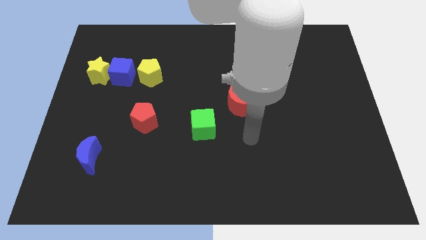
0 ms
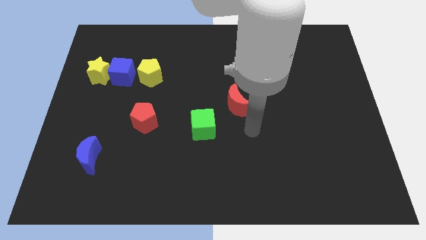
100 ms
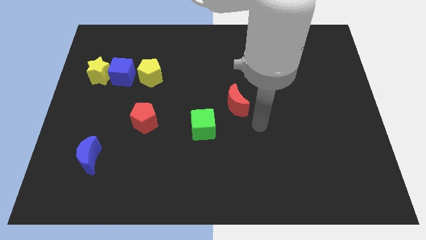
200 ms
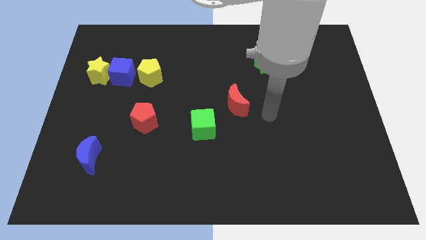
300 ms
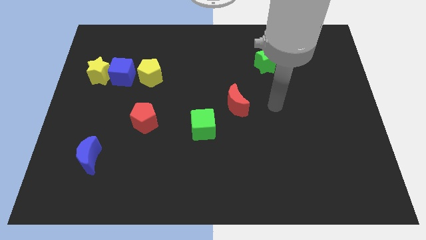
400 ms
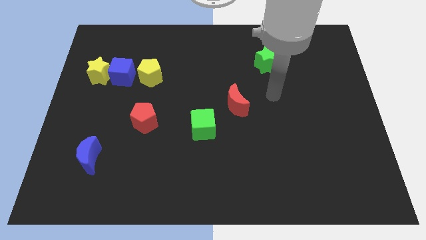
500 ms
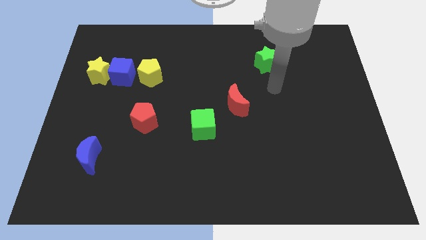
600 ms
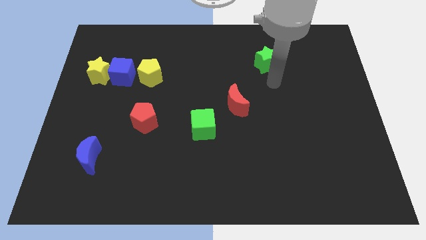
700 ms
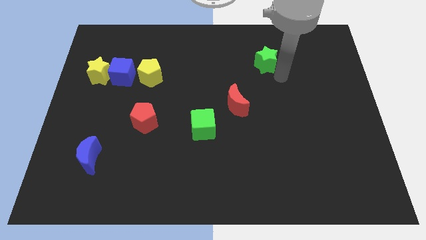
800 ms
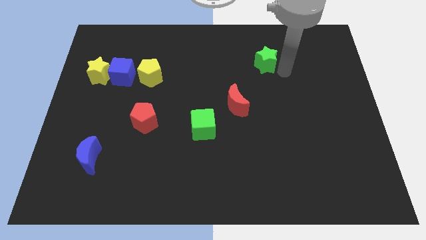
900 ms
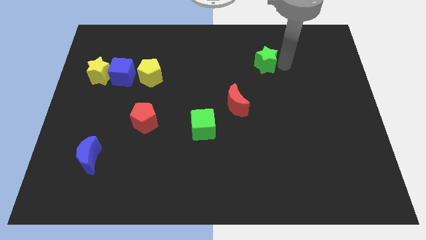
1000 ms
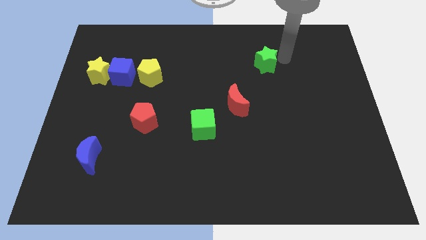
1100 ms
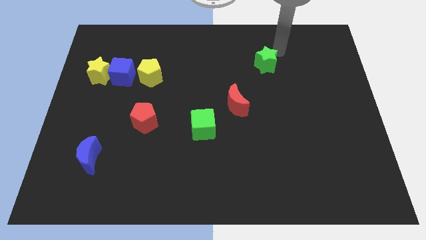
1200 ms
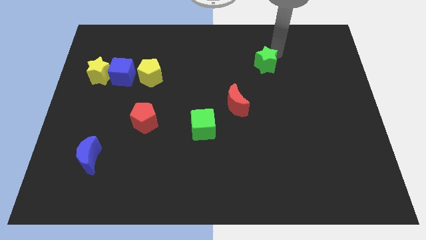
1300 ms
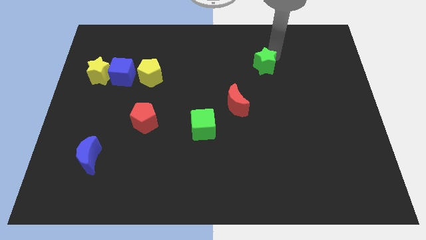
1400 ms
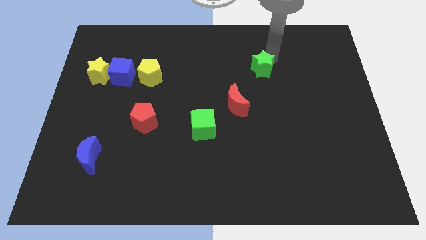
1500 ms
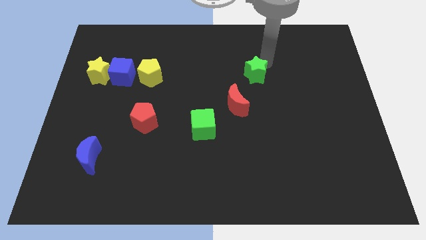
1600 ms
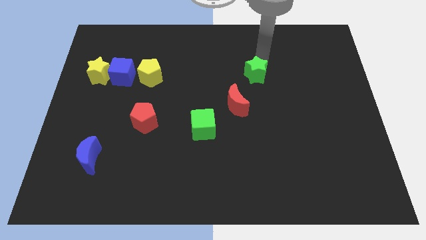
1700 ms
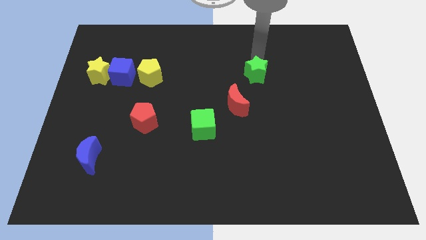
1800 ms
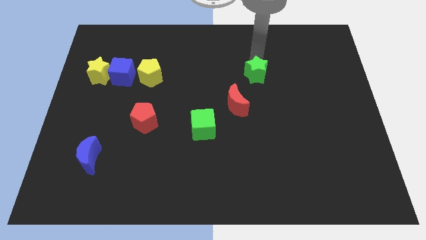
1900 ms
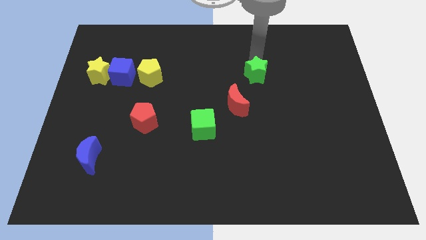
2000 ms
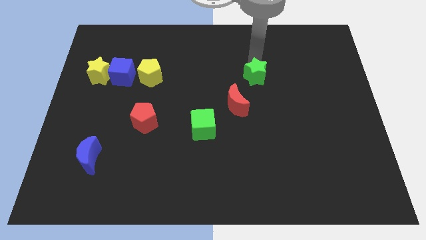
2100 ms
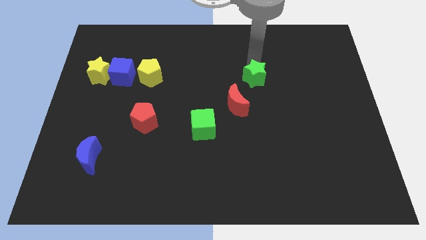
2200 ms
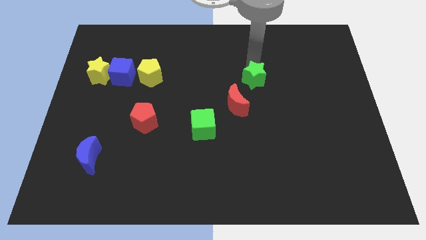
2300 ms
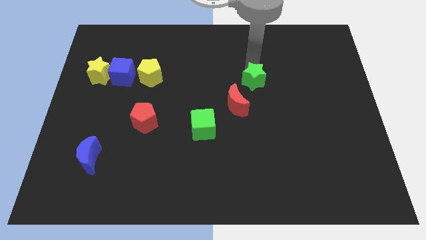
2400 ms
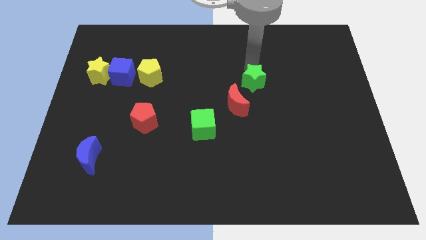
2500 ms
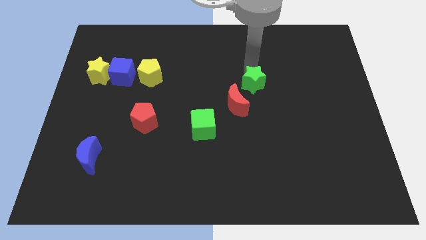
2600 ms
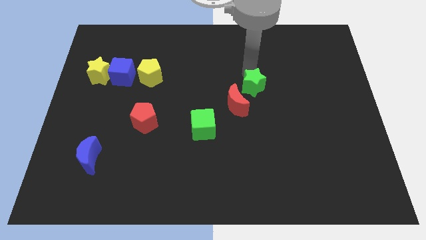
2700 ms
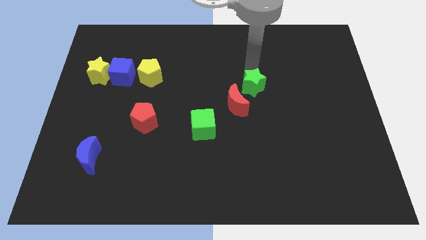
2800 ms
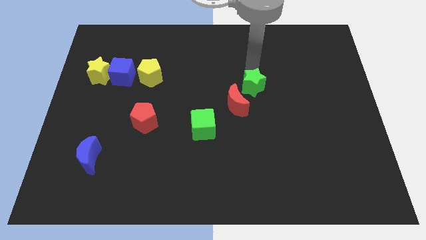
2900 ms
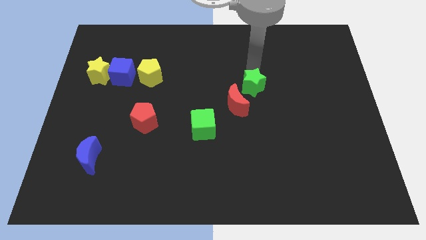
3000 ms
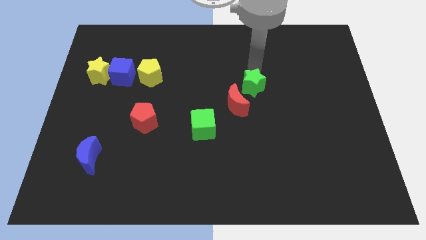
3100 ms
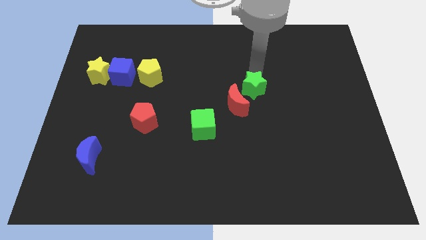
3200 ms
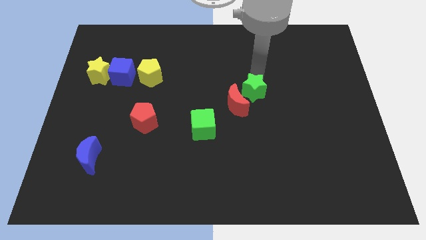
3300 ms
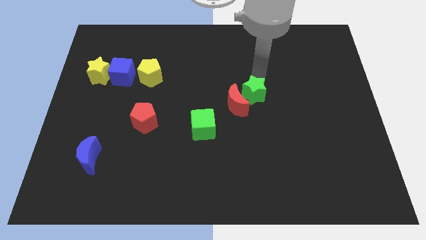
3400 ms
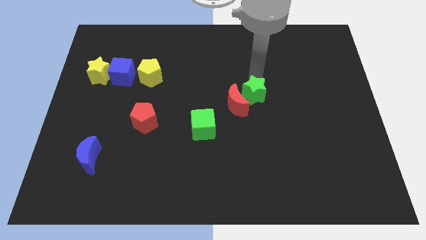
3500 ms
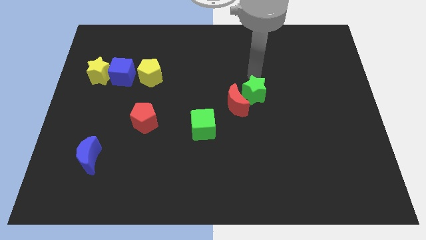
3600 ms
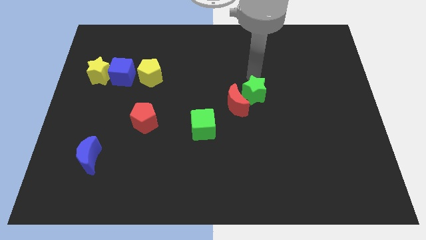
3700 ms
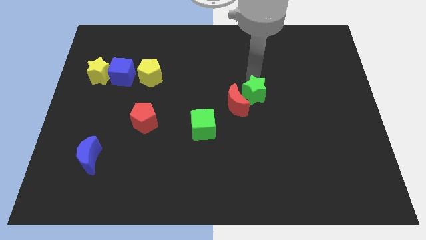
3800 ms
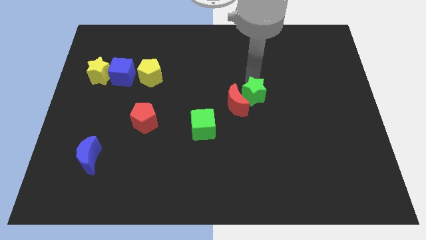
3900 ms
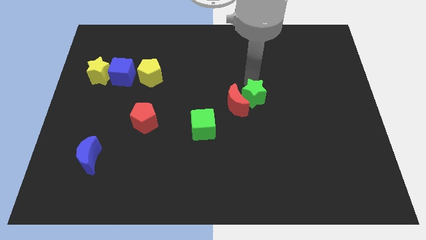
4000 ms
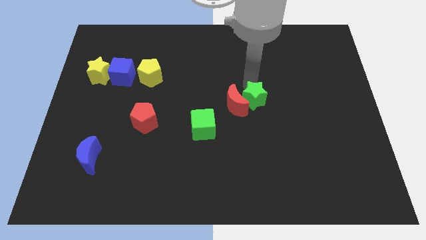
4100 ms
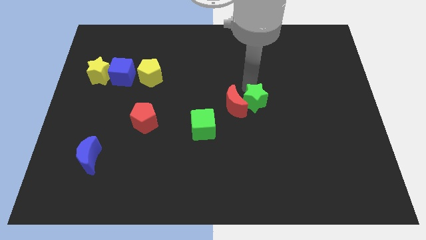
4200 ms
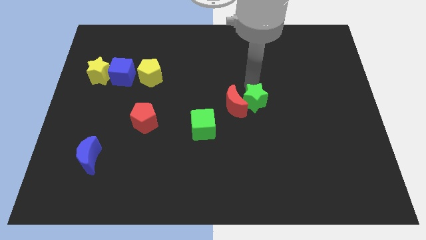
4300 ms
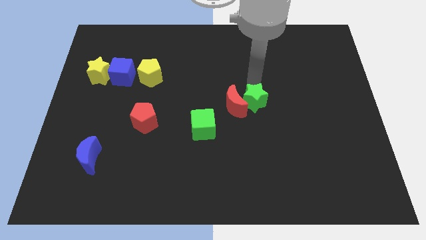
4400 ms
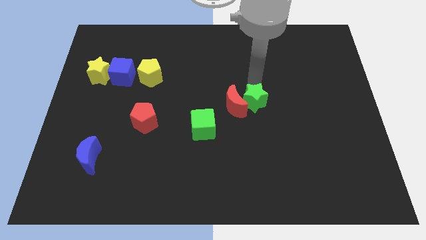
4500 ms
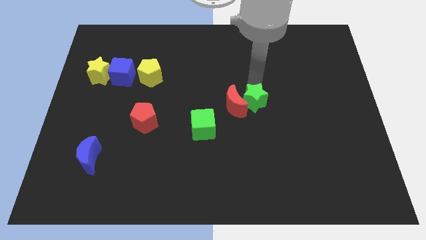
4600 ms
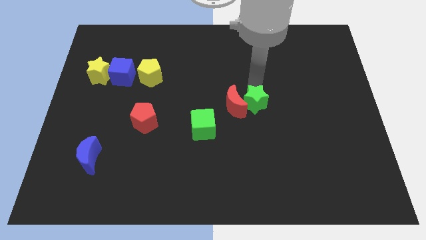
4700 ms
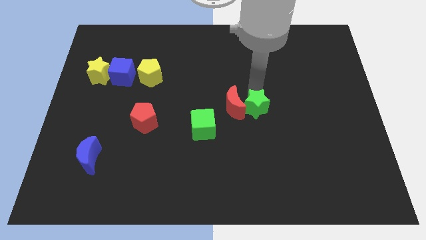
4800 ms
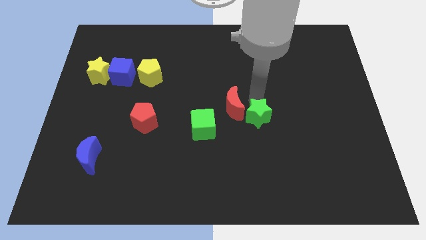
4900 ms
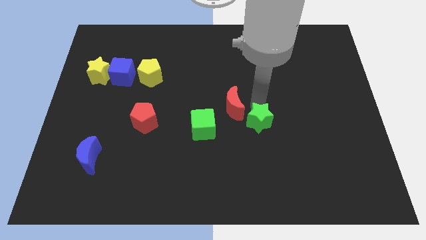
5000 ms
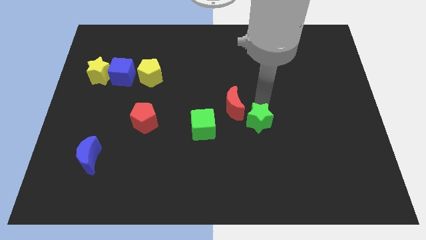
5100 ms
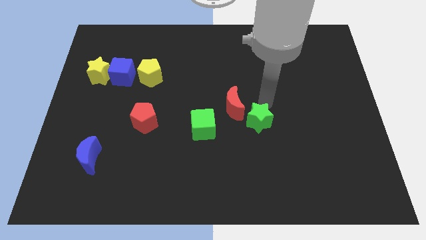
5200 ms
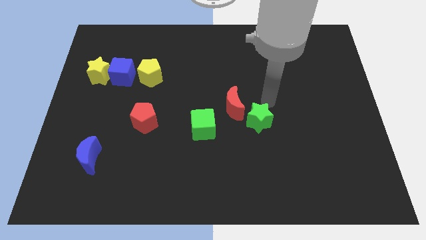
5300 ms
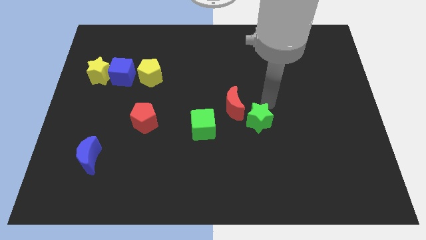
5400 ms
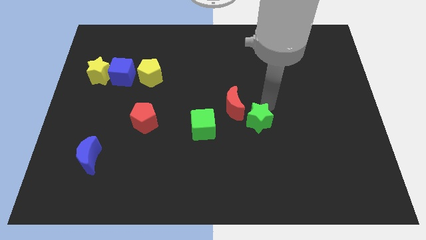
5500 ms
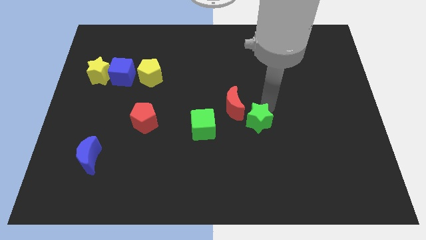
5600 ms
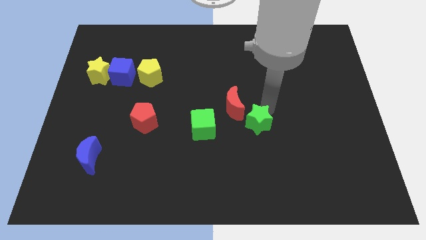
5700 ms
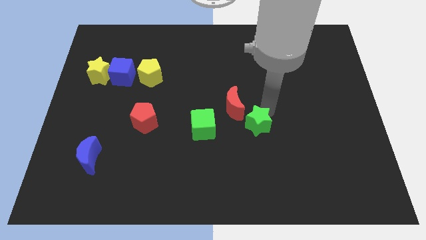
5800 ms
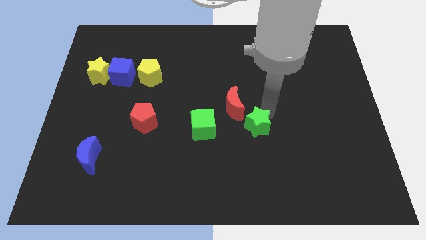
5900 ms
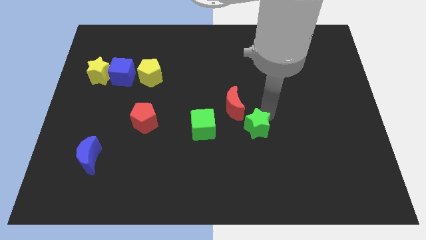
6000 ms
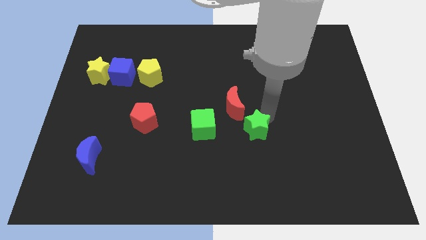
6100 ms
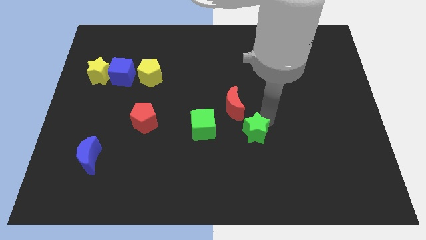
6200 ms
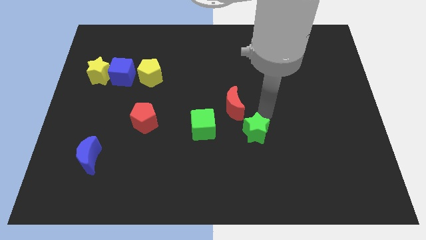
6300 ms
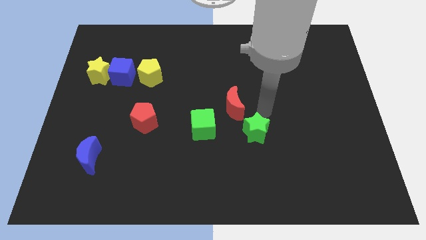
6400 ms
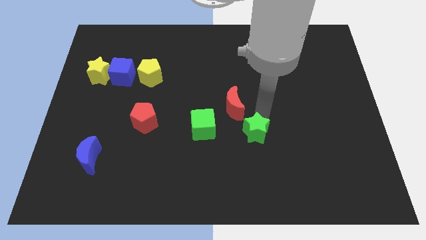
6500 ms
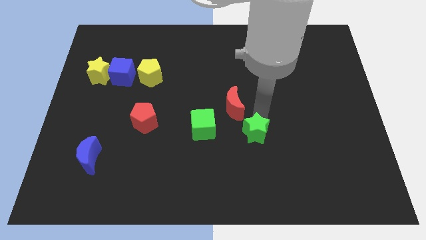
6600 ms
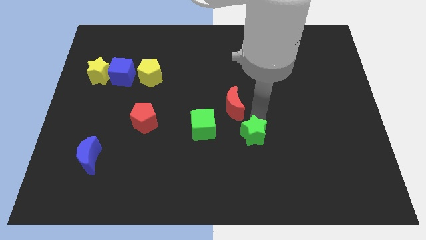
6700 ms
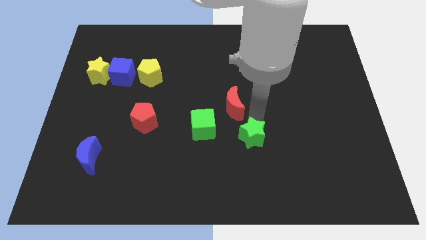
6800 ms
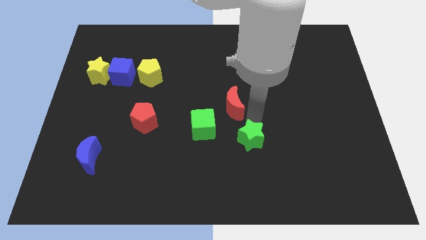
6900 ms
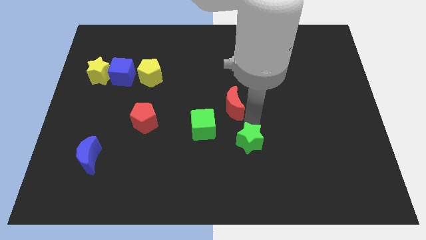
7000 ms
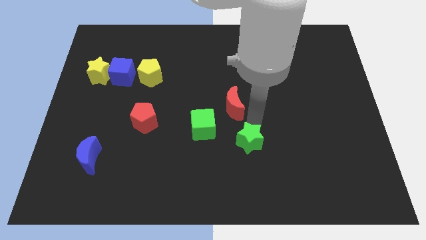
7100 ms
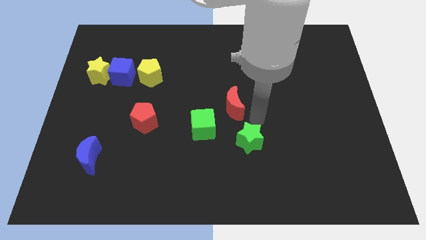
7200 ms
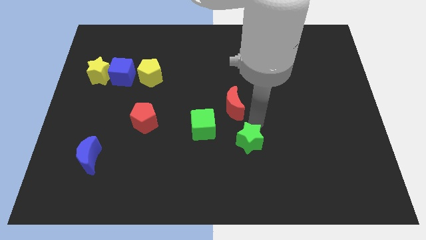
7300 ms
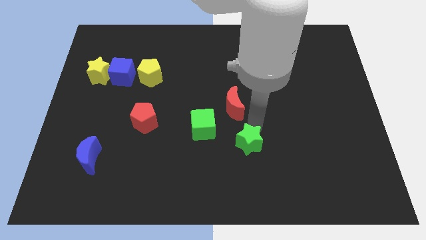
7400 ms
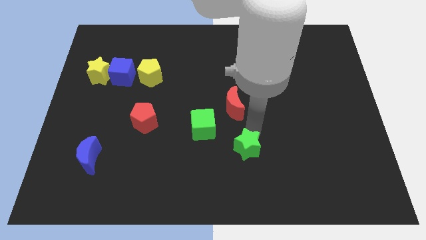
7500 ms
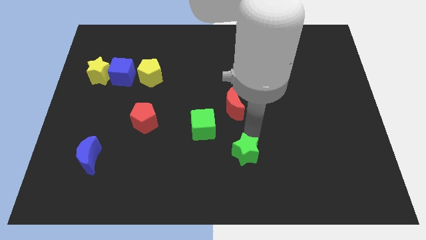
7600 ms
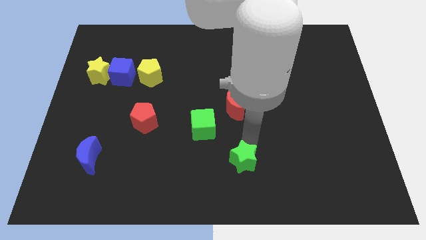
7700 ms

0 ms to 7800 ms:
move the green star to the bottom
